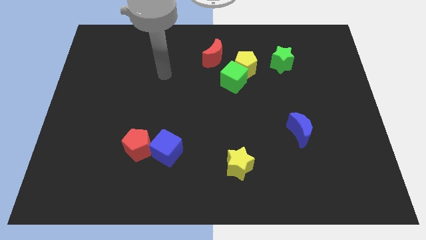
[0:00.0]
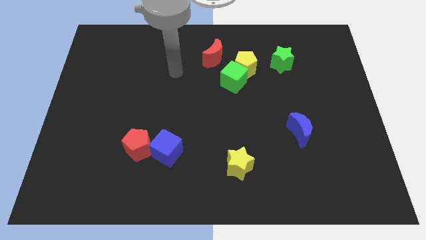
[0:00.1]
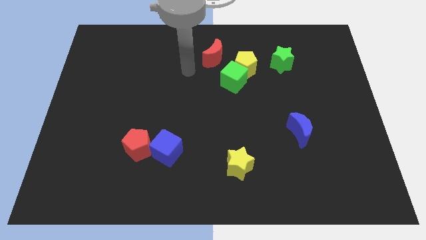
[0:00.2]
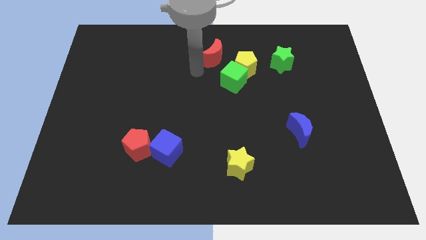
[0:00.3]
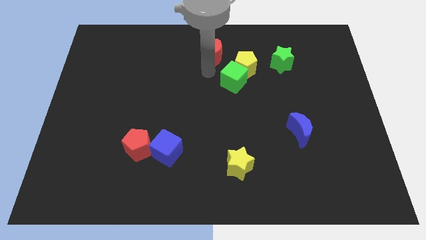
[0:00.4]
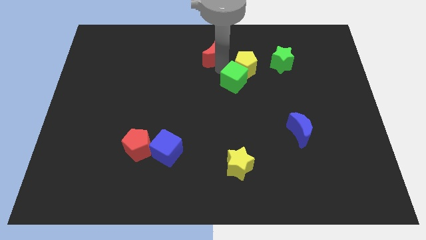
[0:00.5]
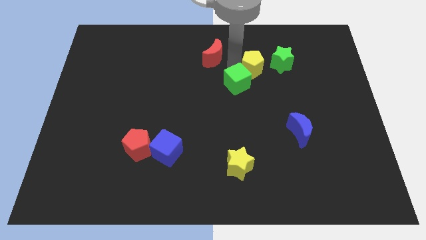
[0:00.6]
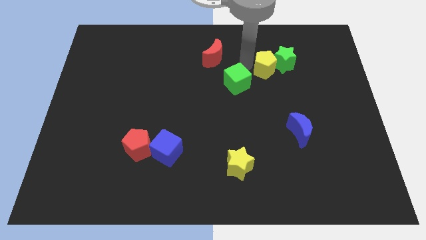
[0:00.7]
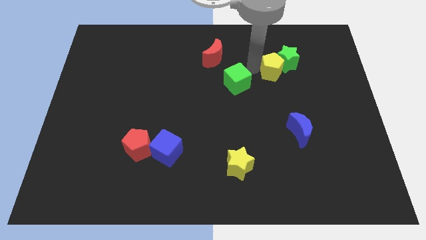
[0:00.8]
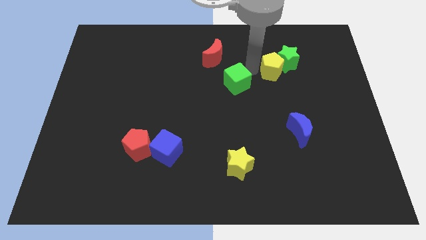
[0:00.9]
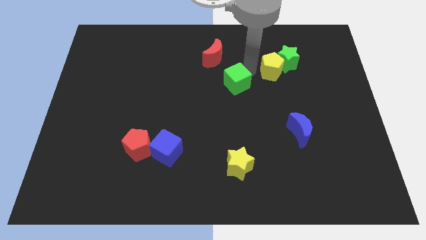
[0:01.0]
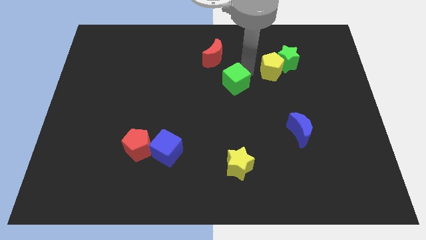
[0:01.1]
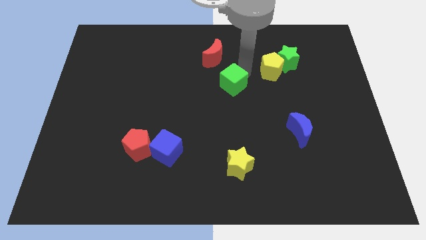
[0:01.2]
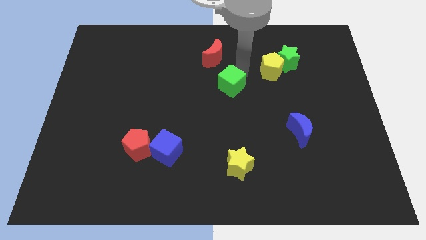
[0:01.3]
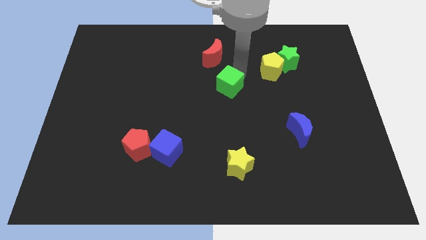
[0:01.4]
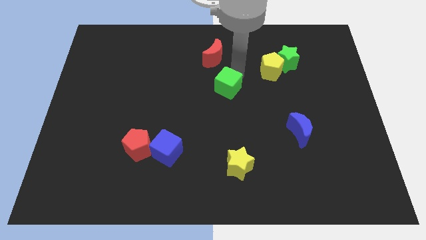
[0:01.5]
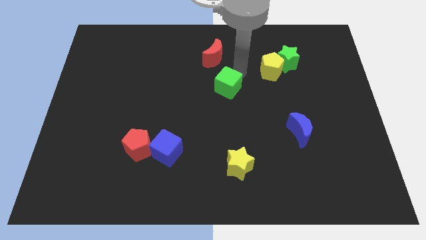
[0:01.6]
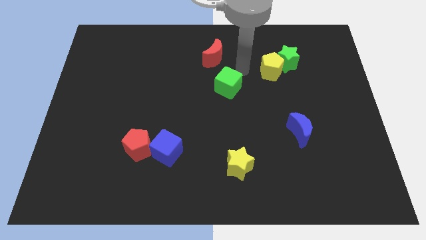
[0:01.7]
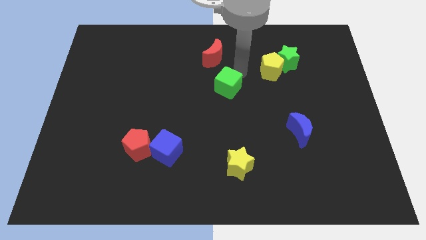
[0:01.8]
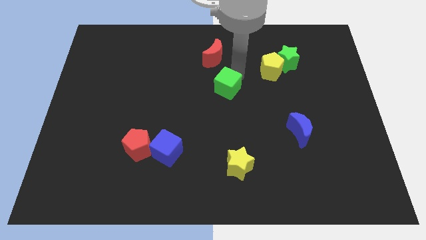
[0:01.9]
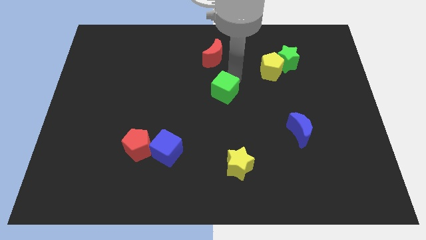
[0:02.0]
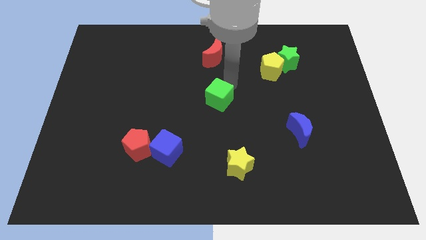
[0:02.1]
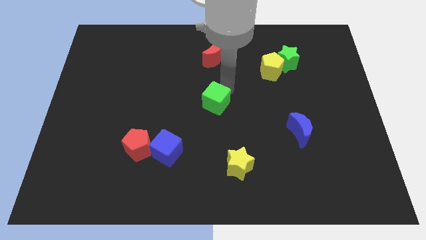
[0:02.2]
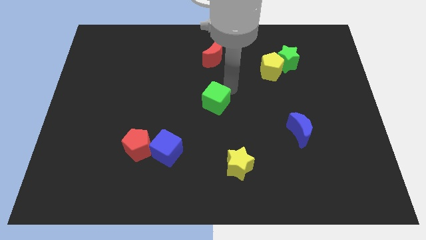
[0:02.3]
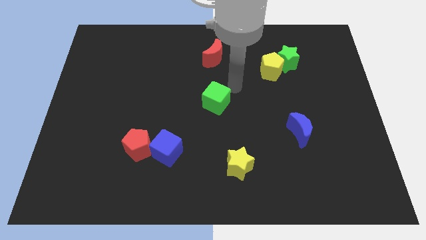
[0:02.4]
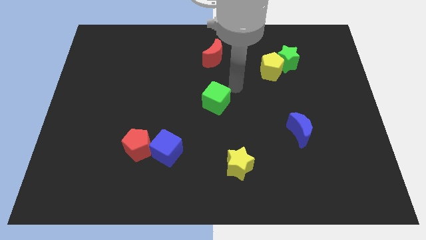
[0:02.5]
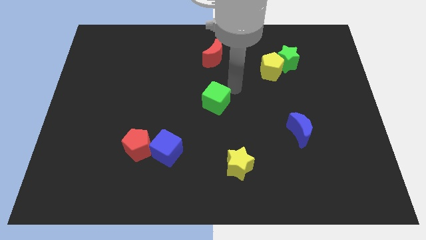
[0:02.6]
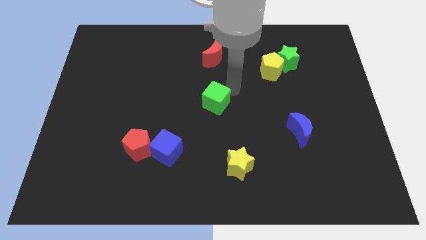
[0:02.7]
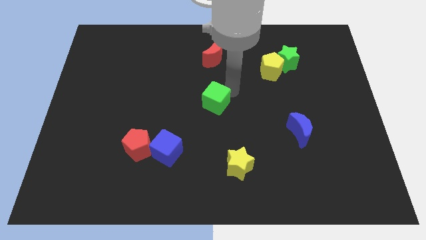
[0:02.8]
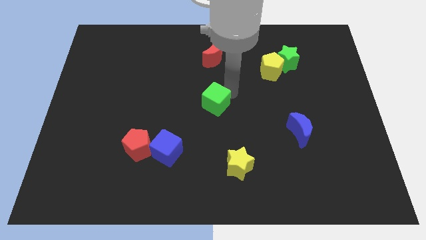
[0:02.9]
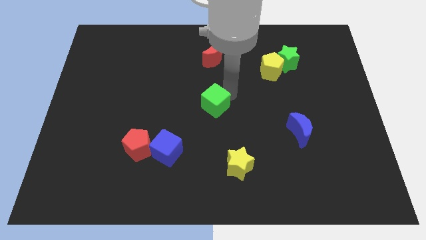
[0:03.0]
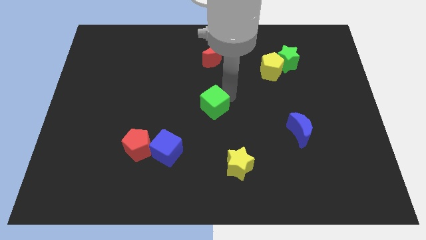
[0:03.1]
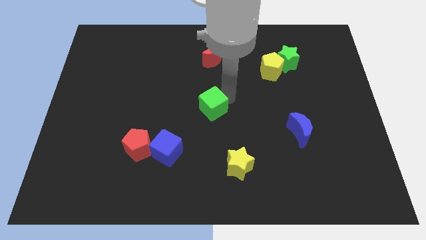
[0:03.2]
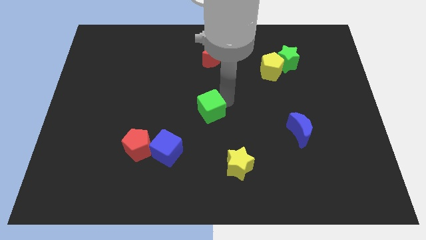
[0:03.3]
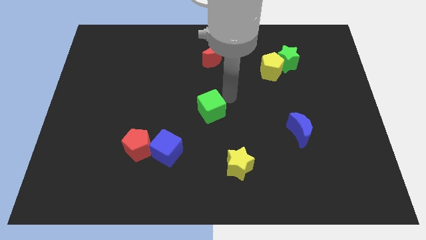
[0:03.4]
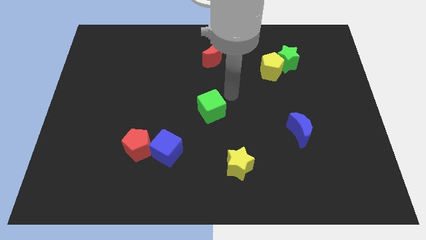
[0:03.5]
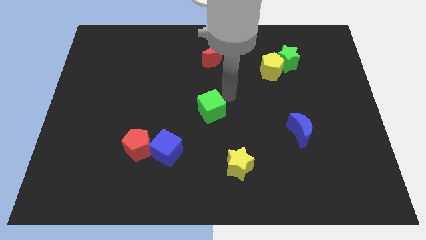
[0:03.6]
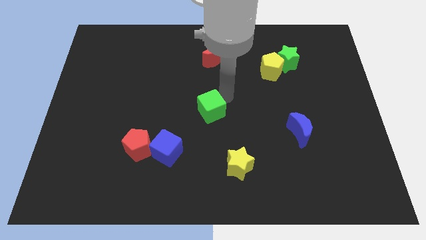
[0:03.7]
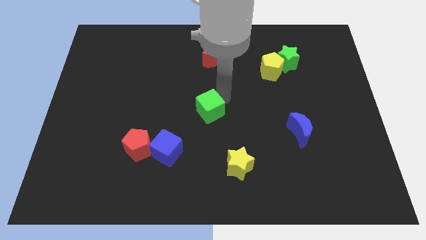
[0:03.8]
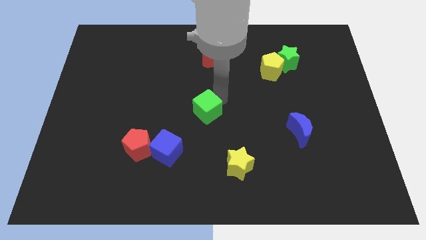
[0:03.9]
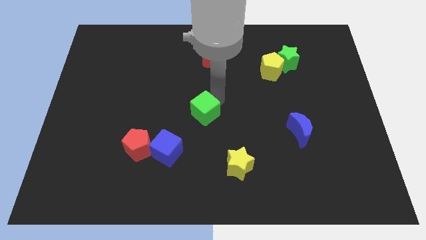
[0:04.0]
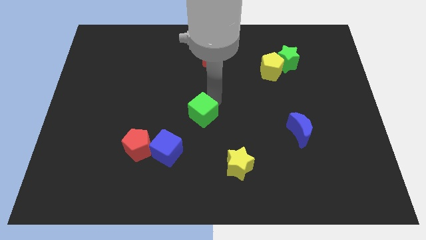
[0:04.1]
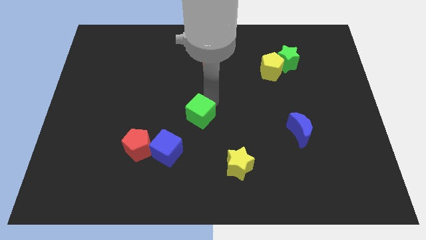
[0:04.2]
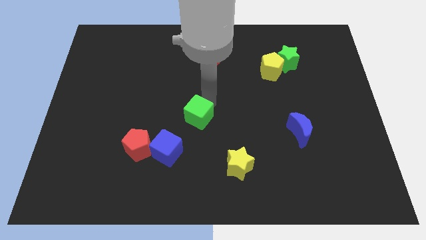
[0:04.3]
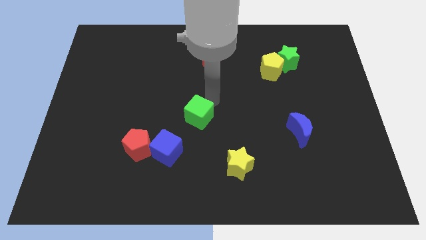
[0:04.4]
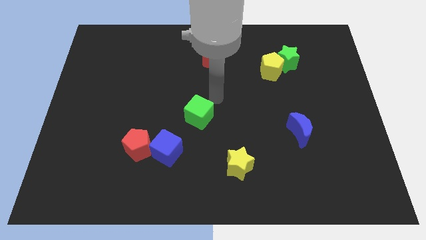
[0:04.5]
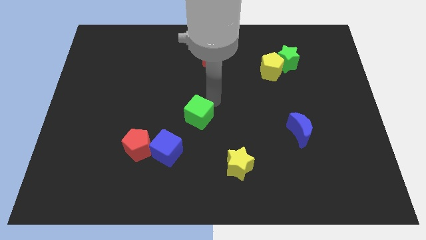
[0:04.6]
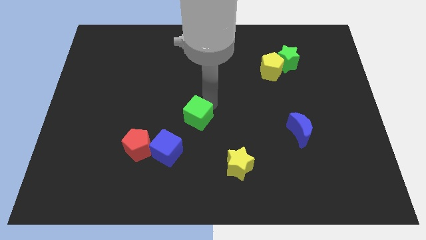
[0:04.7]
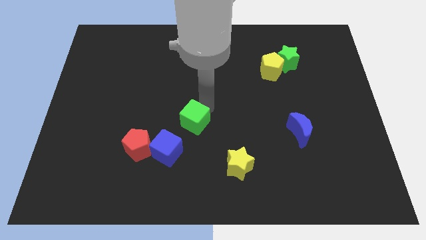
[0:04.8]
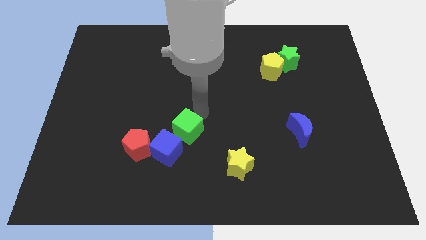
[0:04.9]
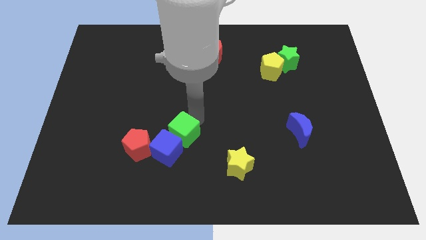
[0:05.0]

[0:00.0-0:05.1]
slide the green cube towards the blue cube

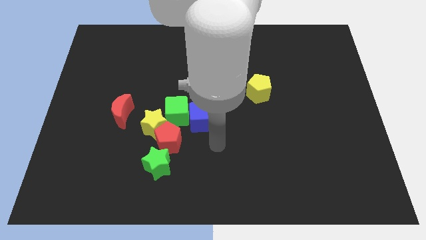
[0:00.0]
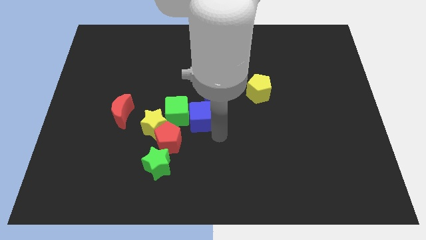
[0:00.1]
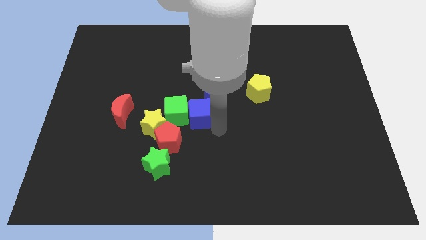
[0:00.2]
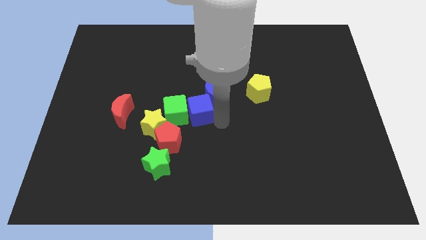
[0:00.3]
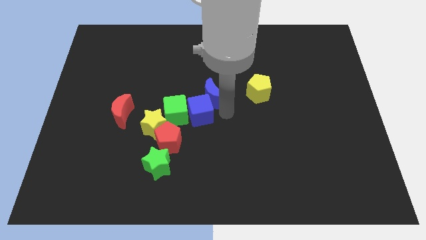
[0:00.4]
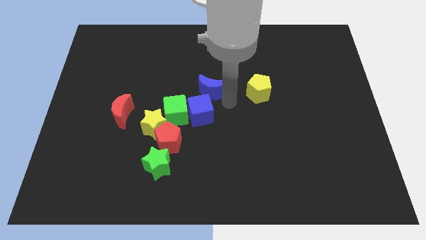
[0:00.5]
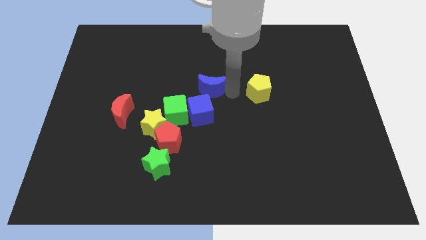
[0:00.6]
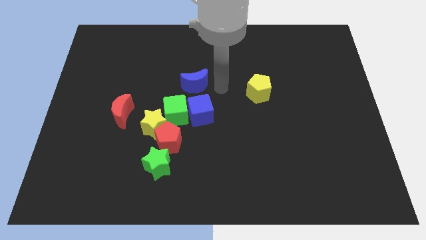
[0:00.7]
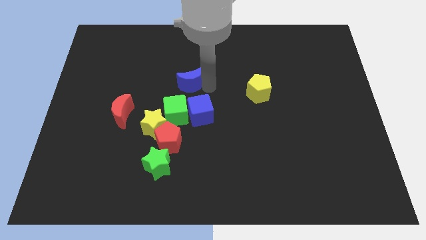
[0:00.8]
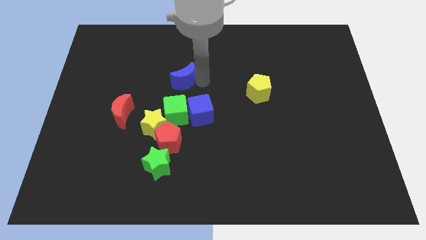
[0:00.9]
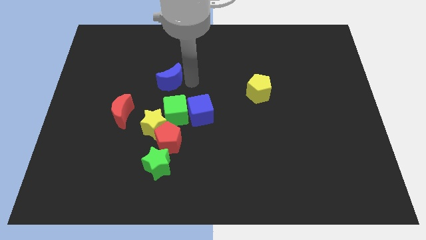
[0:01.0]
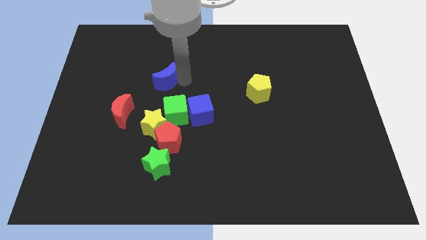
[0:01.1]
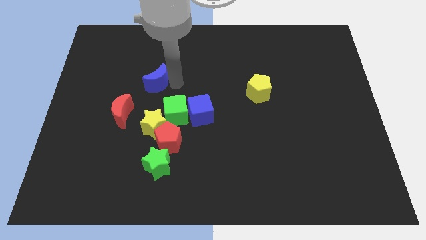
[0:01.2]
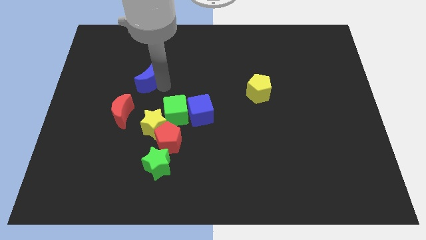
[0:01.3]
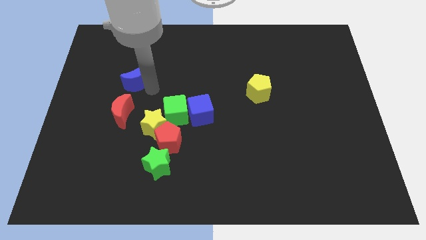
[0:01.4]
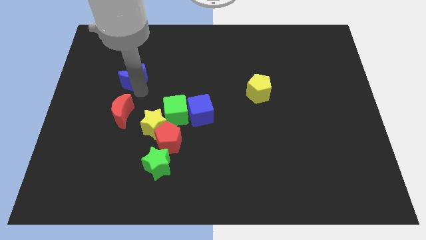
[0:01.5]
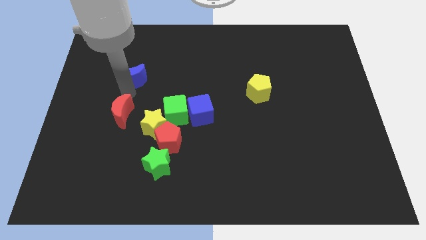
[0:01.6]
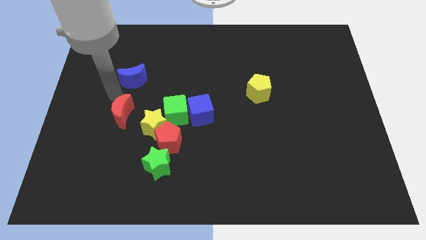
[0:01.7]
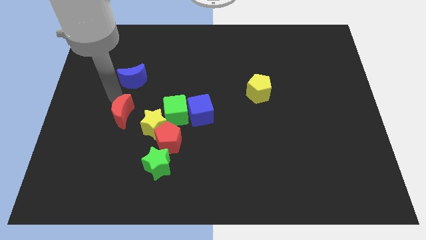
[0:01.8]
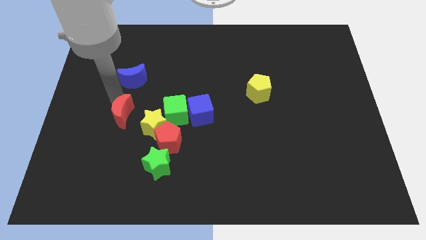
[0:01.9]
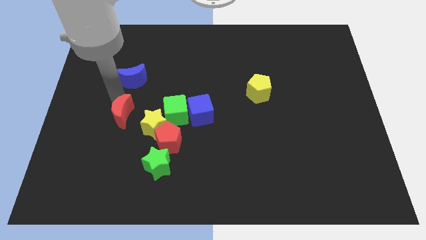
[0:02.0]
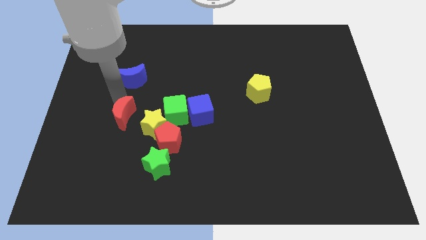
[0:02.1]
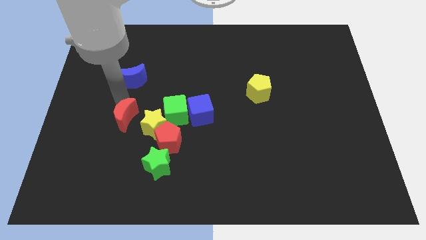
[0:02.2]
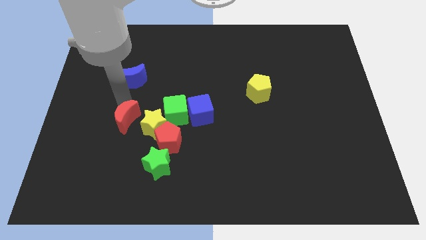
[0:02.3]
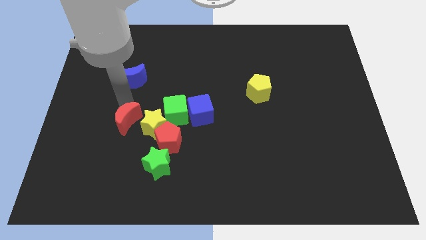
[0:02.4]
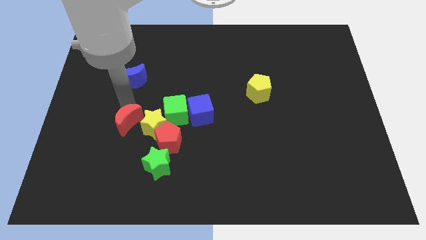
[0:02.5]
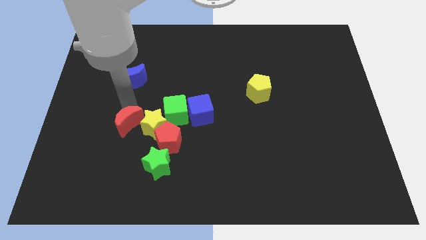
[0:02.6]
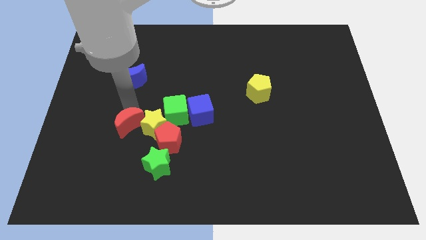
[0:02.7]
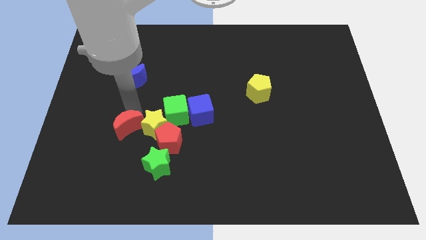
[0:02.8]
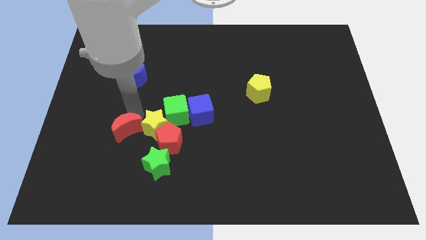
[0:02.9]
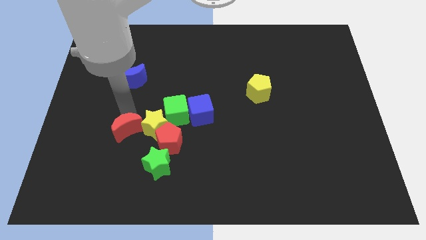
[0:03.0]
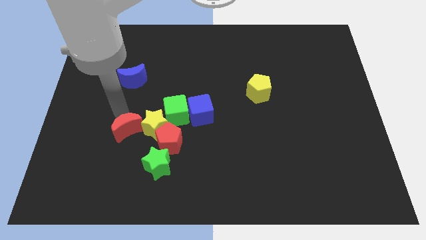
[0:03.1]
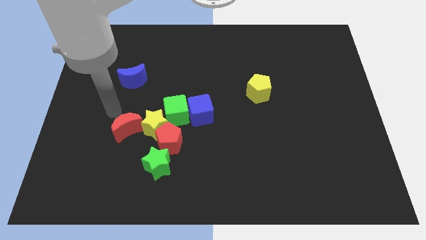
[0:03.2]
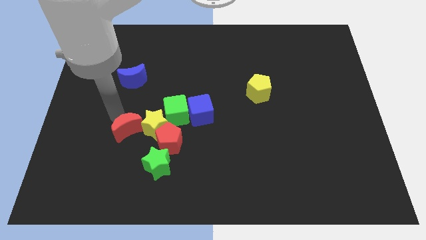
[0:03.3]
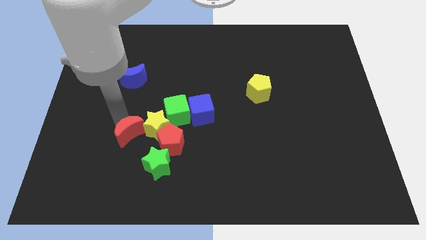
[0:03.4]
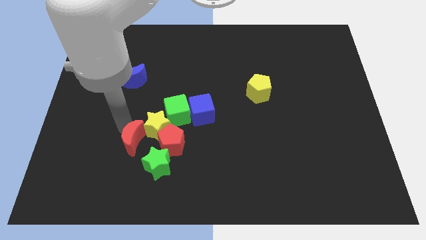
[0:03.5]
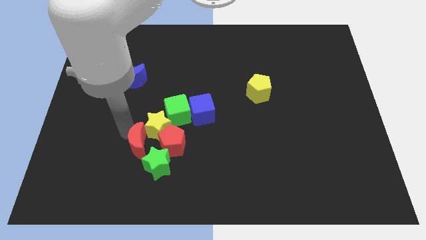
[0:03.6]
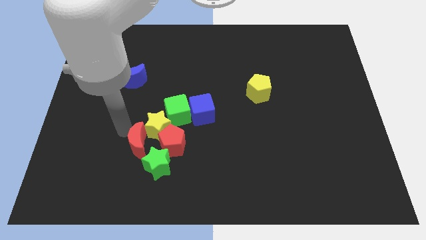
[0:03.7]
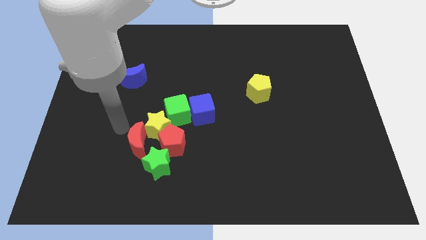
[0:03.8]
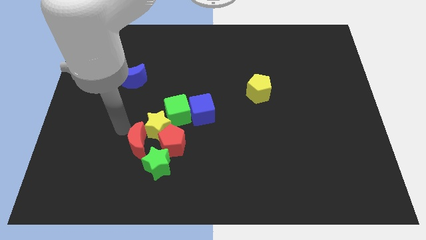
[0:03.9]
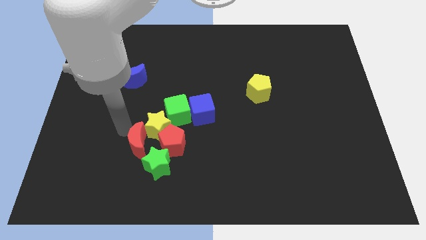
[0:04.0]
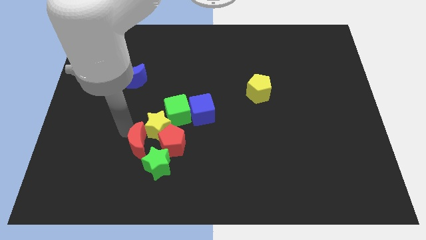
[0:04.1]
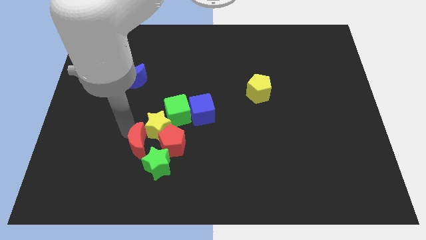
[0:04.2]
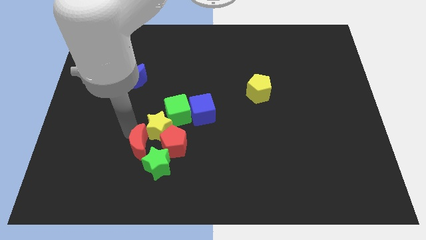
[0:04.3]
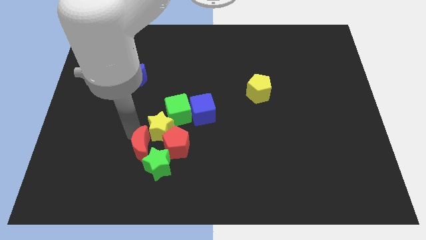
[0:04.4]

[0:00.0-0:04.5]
push the red moon close to the green star
